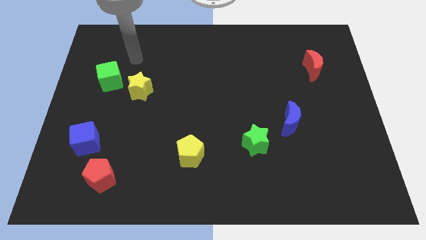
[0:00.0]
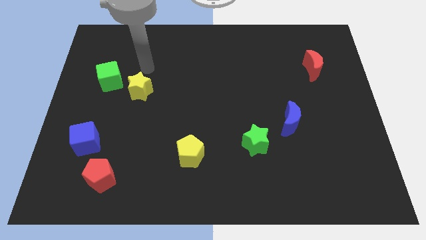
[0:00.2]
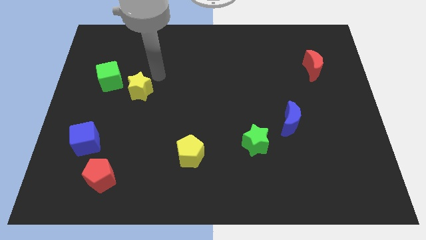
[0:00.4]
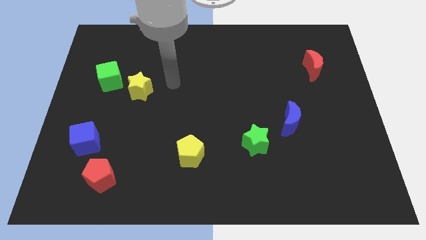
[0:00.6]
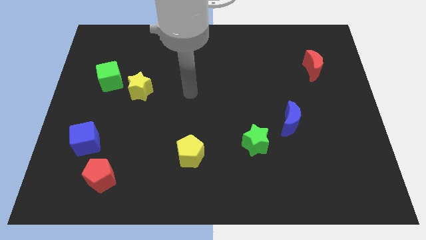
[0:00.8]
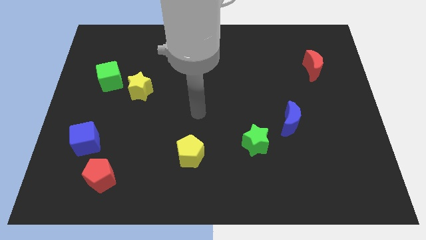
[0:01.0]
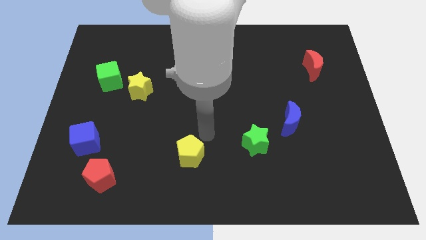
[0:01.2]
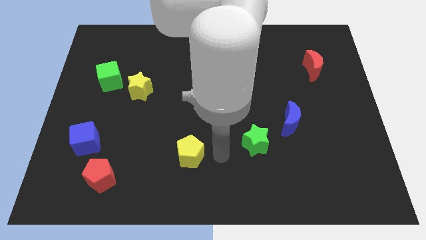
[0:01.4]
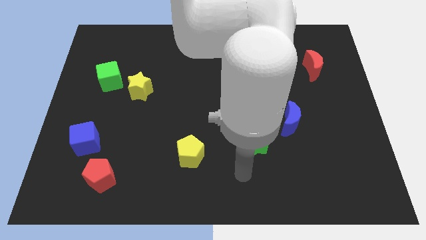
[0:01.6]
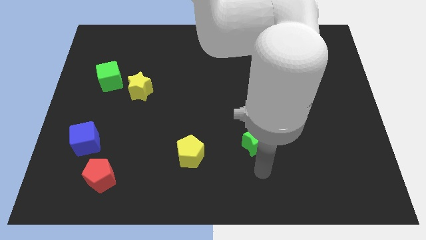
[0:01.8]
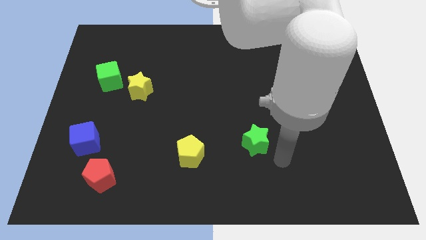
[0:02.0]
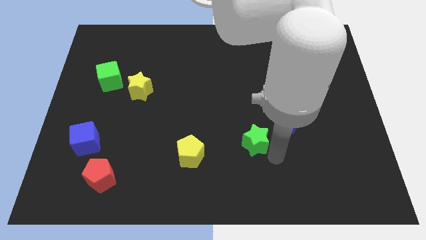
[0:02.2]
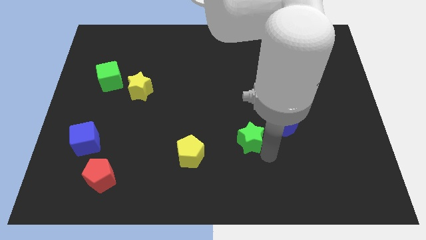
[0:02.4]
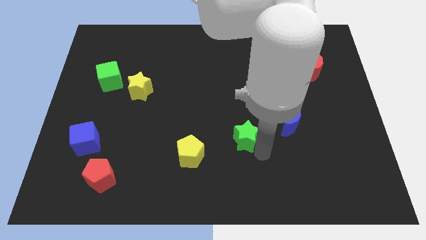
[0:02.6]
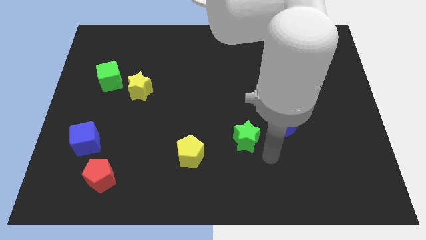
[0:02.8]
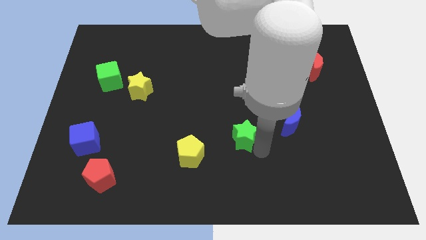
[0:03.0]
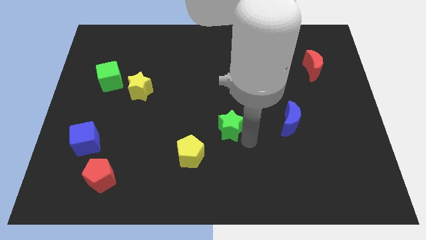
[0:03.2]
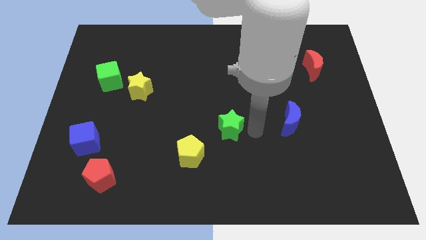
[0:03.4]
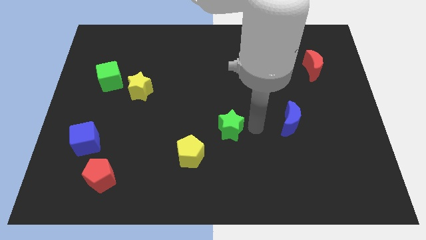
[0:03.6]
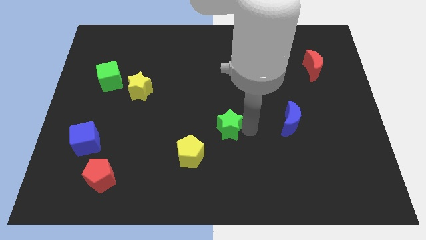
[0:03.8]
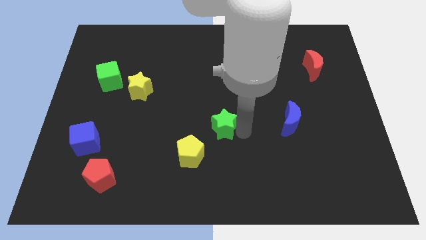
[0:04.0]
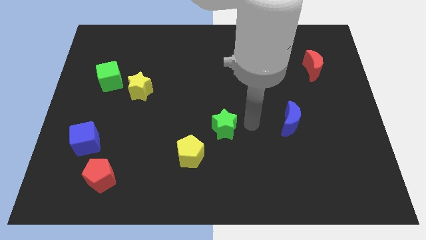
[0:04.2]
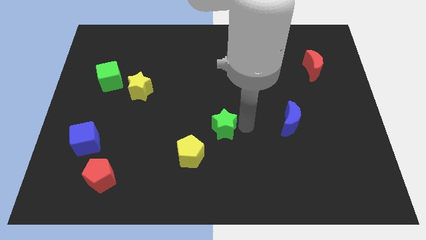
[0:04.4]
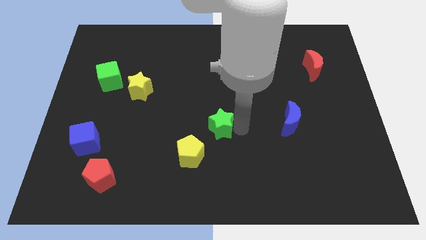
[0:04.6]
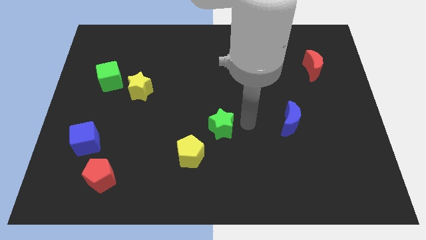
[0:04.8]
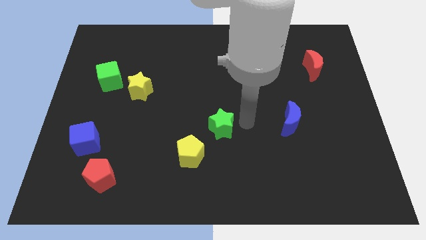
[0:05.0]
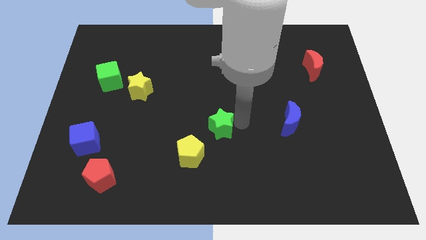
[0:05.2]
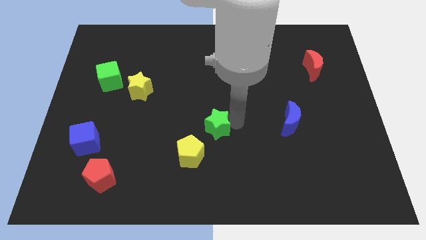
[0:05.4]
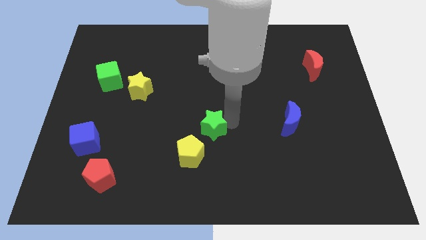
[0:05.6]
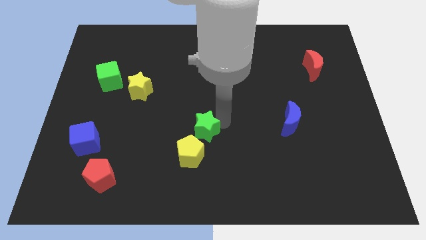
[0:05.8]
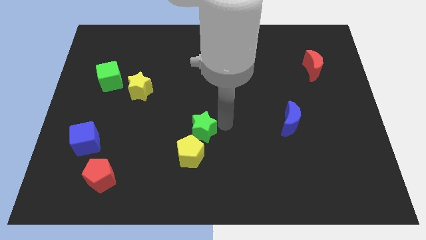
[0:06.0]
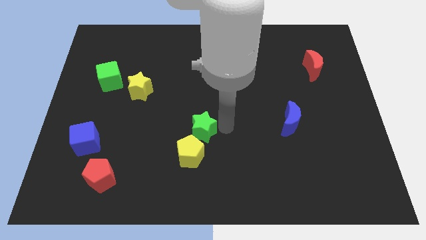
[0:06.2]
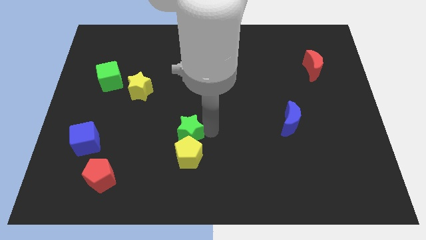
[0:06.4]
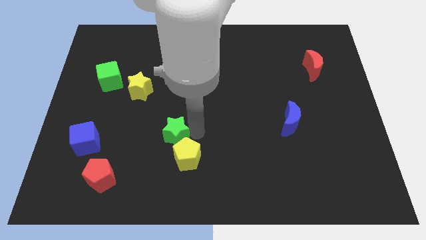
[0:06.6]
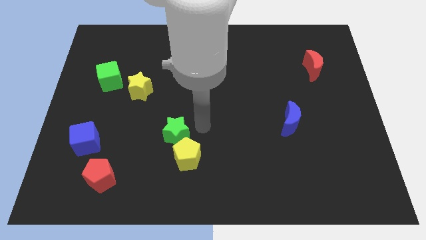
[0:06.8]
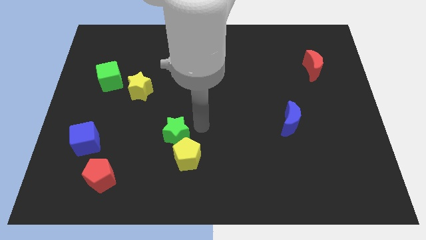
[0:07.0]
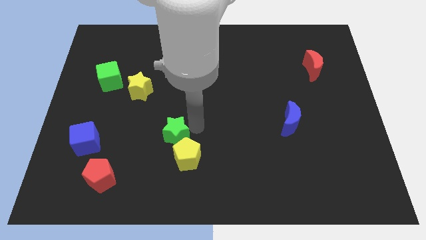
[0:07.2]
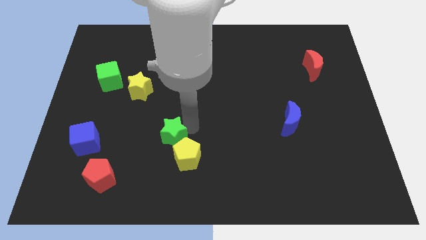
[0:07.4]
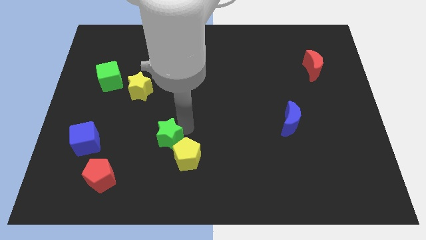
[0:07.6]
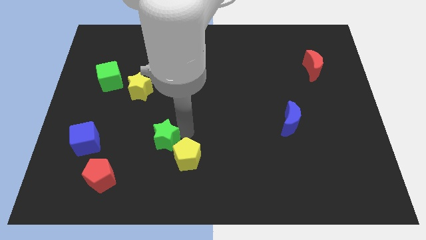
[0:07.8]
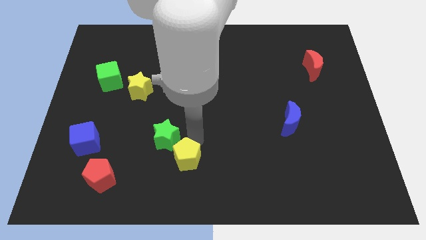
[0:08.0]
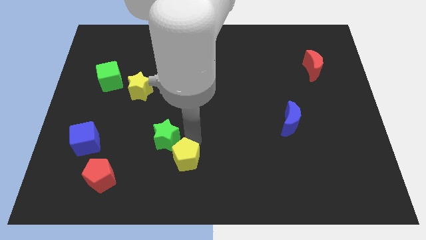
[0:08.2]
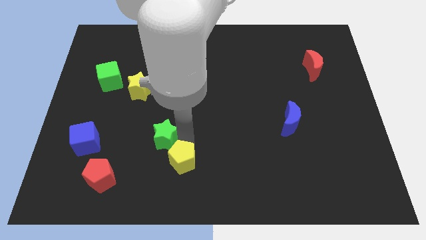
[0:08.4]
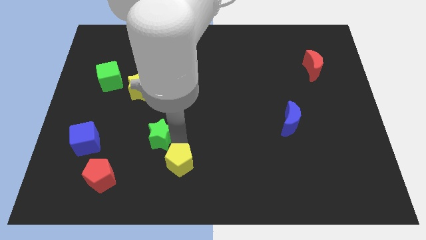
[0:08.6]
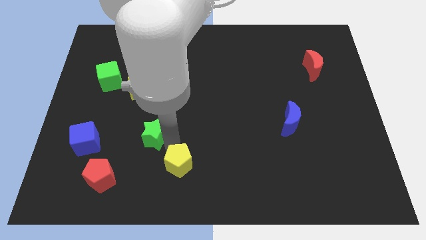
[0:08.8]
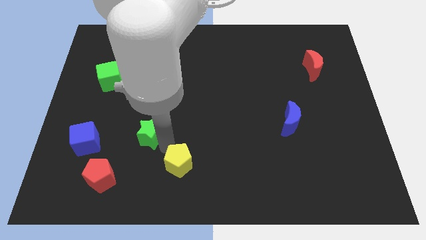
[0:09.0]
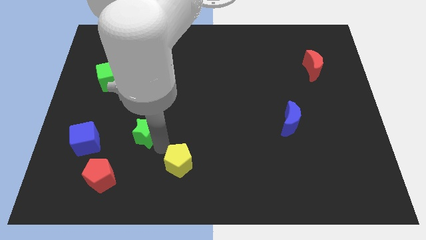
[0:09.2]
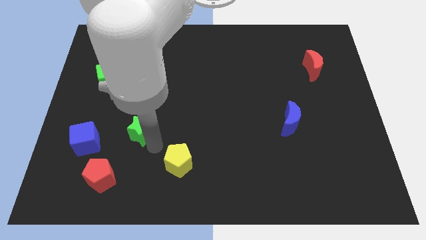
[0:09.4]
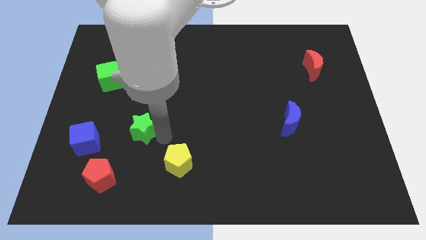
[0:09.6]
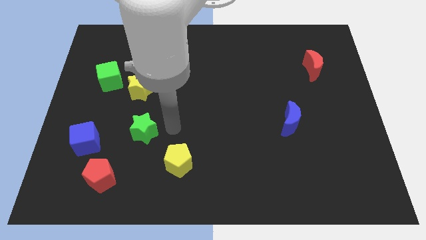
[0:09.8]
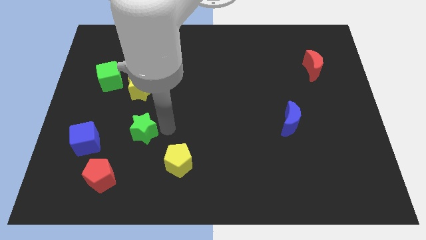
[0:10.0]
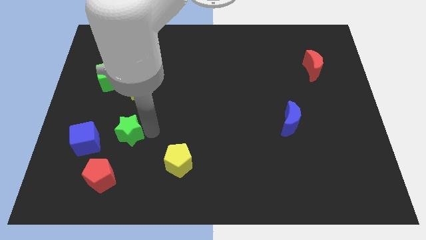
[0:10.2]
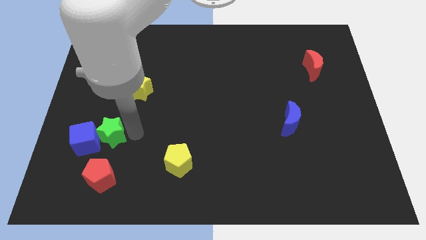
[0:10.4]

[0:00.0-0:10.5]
push the green star close to the blue cube

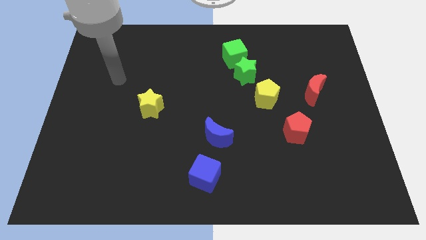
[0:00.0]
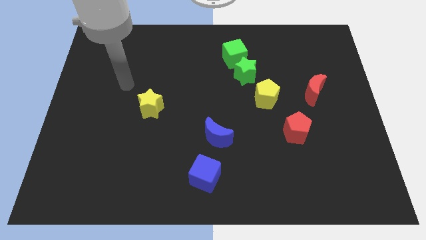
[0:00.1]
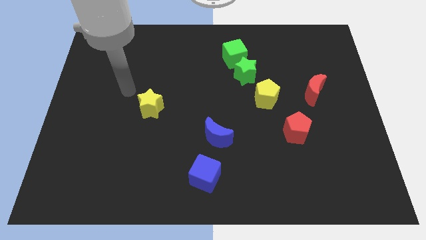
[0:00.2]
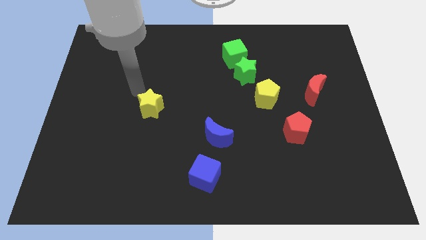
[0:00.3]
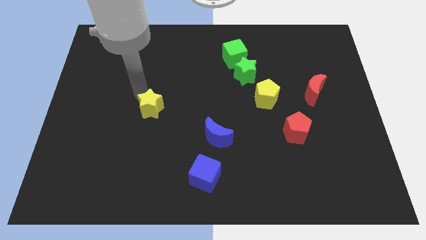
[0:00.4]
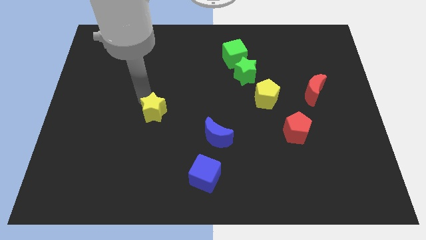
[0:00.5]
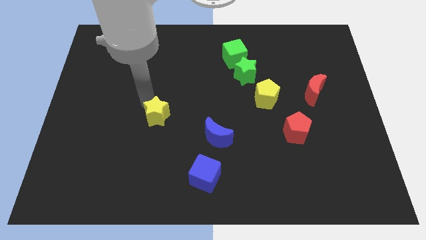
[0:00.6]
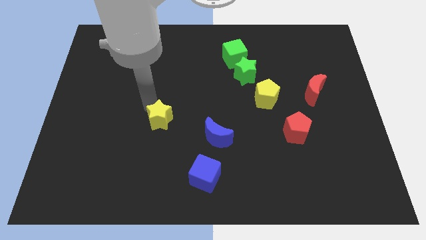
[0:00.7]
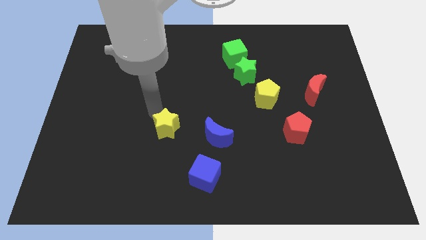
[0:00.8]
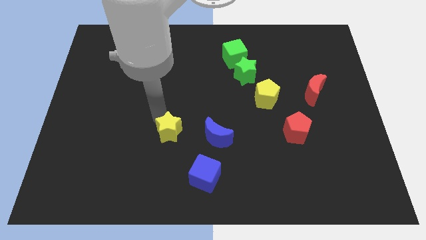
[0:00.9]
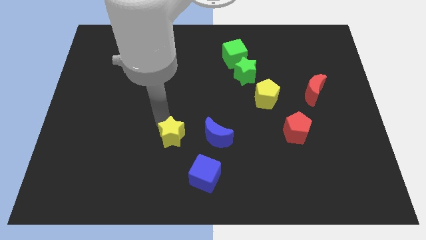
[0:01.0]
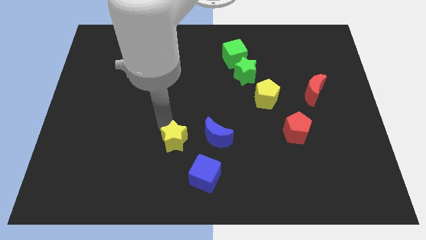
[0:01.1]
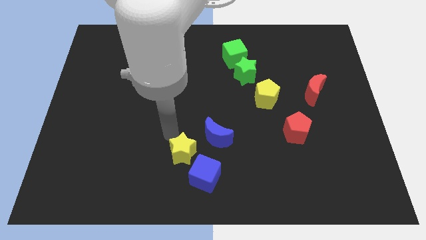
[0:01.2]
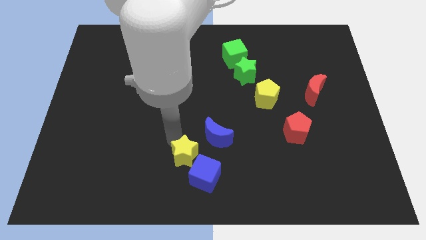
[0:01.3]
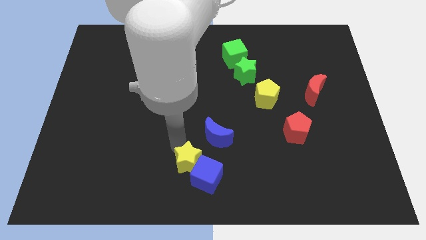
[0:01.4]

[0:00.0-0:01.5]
put the yellow star to the blue cube
